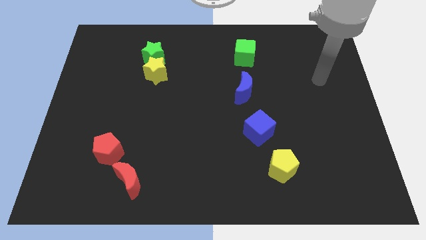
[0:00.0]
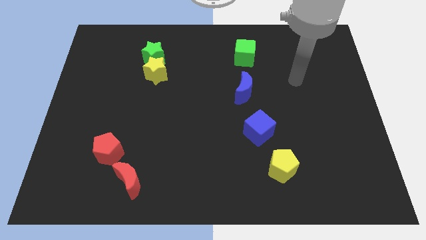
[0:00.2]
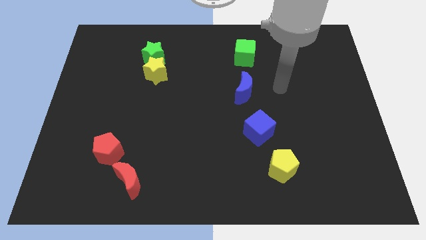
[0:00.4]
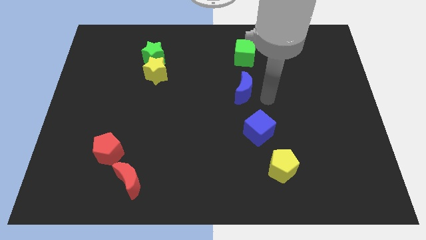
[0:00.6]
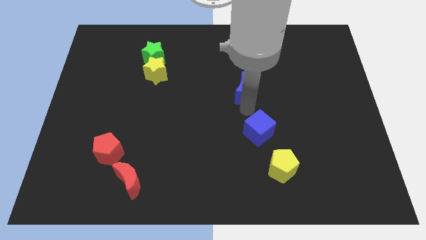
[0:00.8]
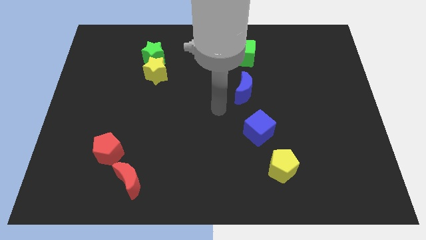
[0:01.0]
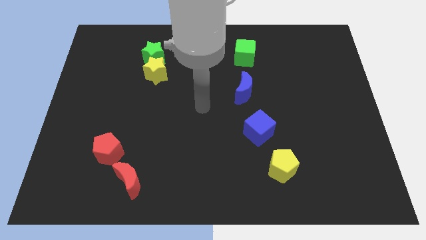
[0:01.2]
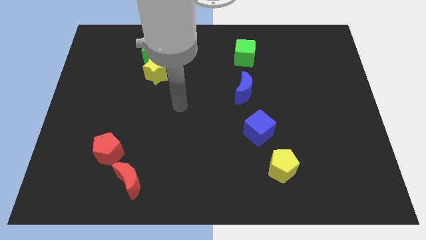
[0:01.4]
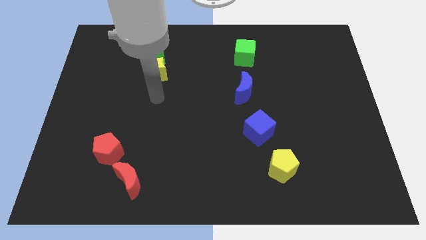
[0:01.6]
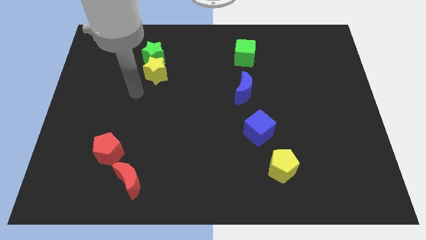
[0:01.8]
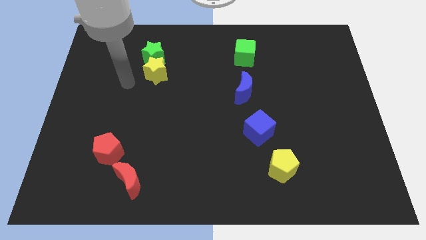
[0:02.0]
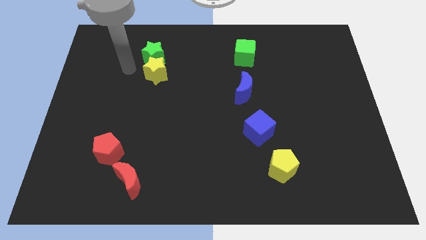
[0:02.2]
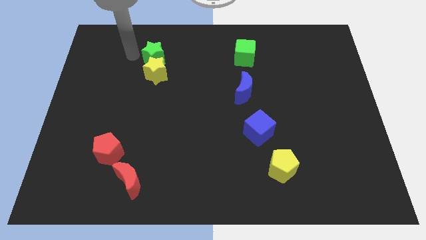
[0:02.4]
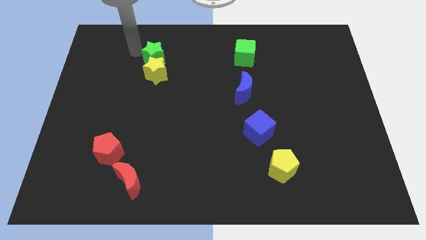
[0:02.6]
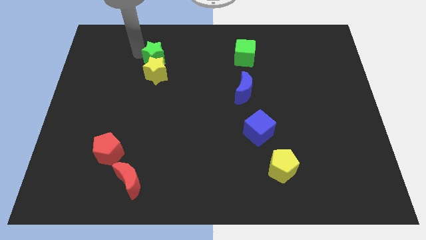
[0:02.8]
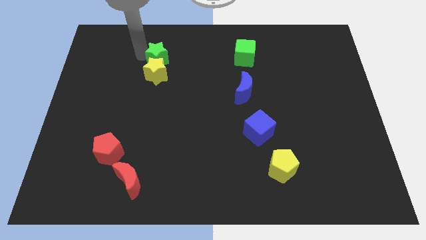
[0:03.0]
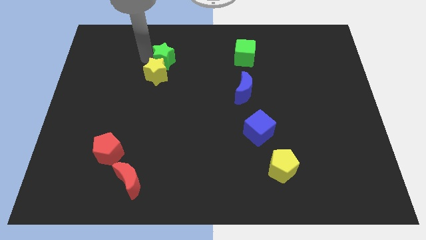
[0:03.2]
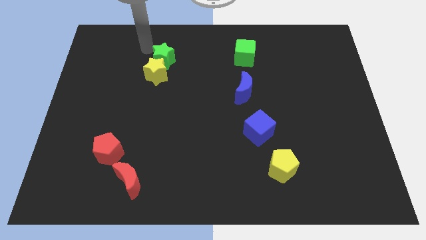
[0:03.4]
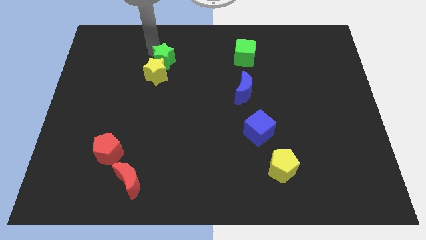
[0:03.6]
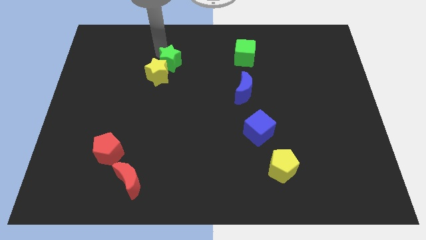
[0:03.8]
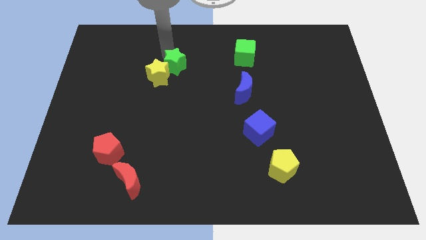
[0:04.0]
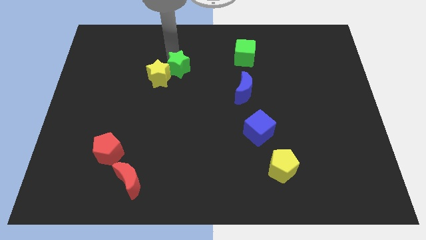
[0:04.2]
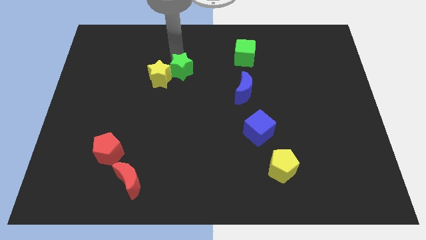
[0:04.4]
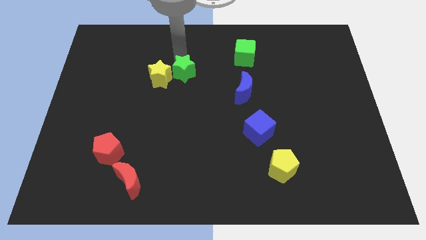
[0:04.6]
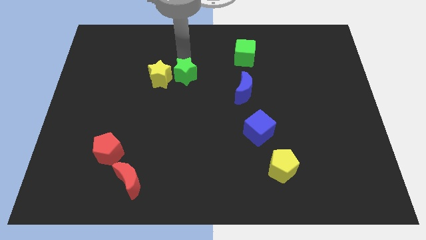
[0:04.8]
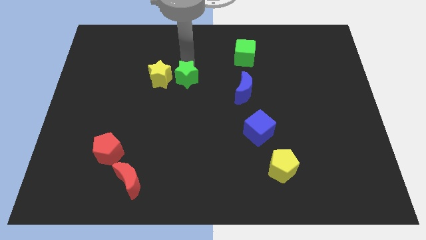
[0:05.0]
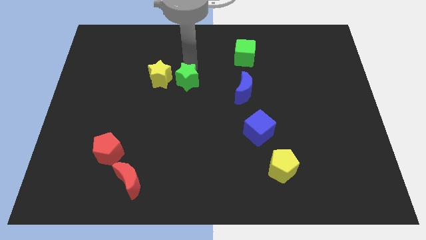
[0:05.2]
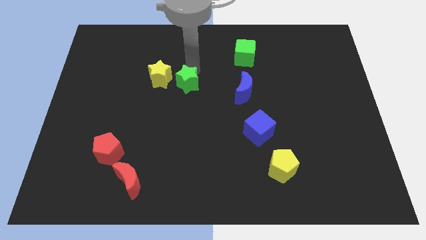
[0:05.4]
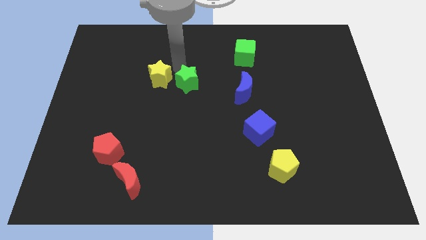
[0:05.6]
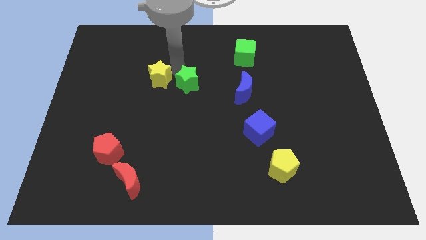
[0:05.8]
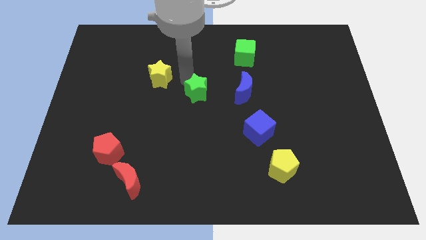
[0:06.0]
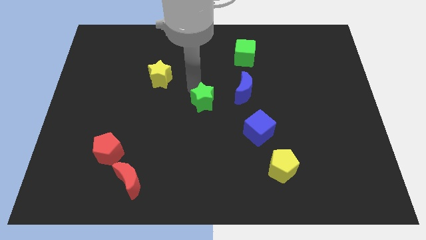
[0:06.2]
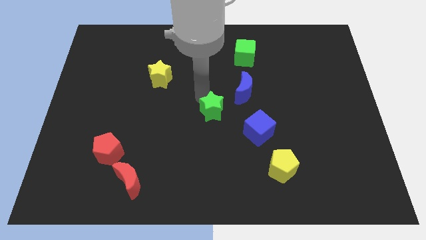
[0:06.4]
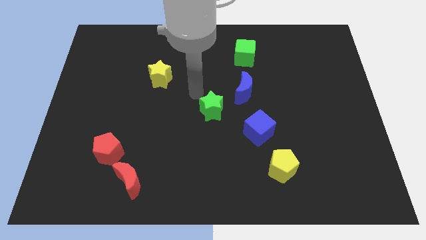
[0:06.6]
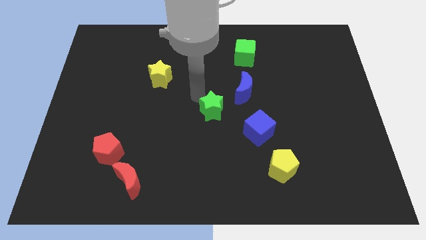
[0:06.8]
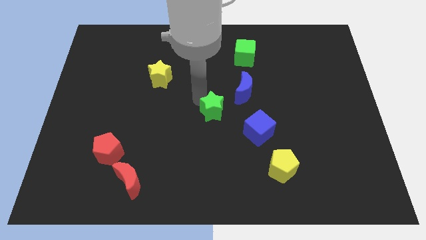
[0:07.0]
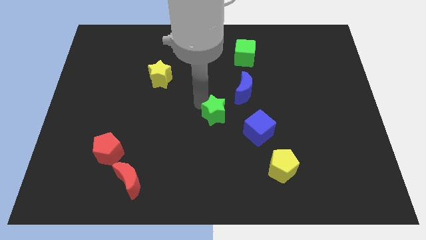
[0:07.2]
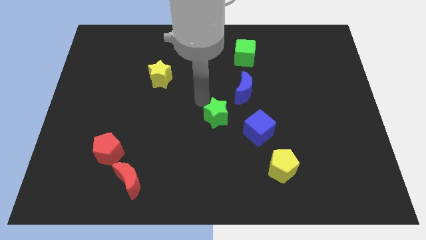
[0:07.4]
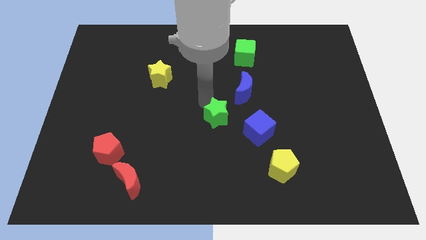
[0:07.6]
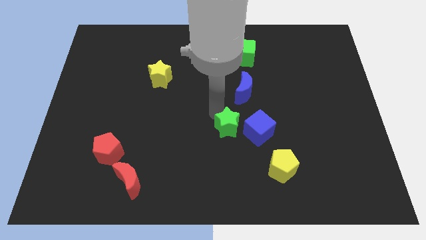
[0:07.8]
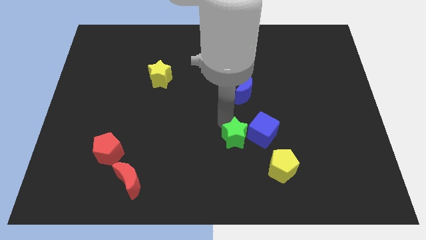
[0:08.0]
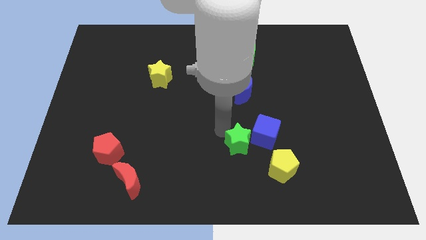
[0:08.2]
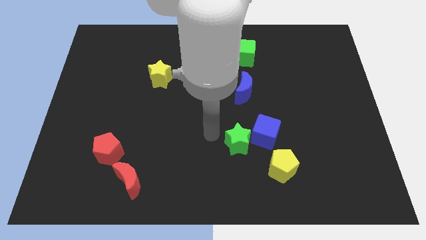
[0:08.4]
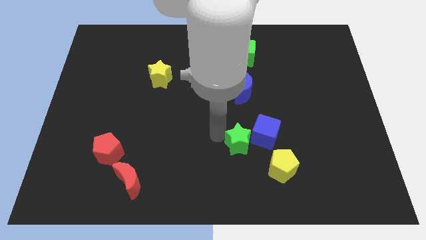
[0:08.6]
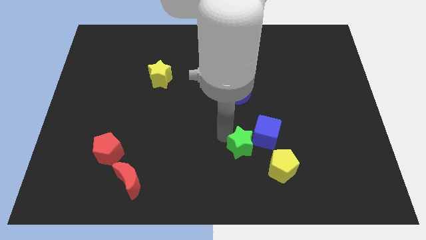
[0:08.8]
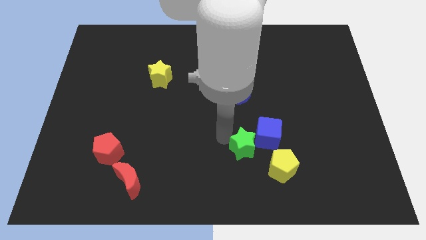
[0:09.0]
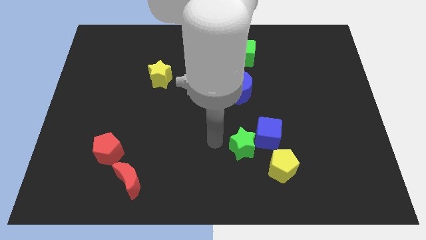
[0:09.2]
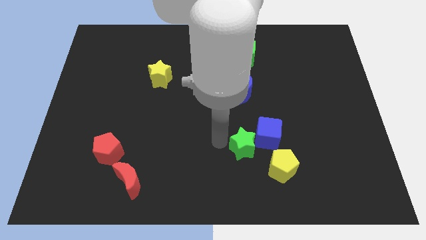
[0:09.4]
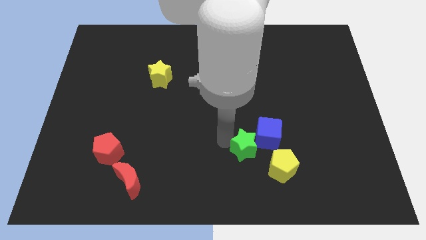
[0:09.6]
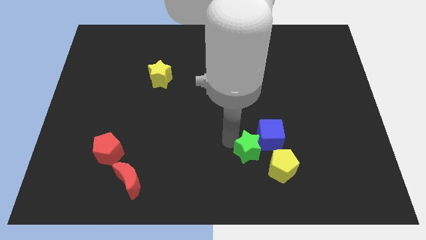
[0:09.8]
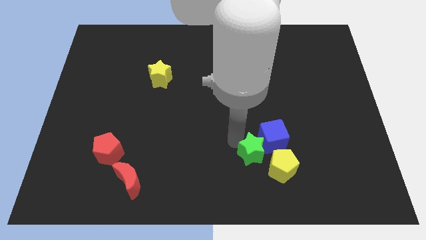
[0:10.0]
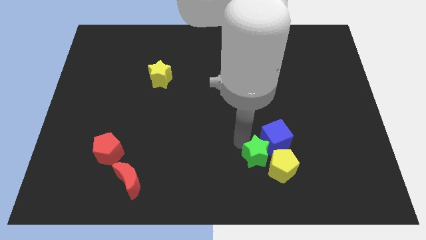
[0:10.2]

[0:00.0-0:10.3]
put the green star towards the yellow pentagon

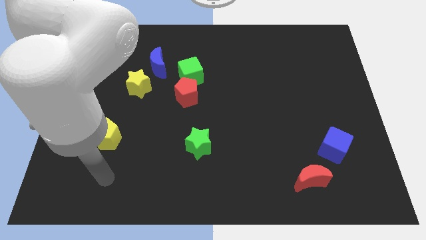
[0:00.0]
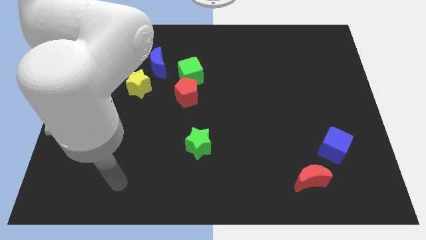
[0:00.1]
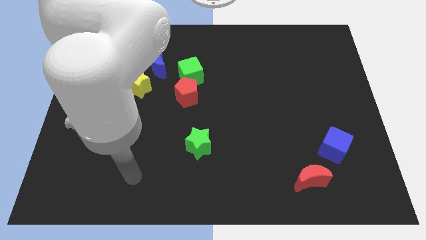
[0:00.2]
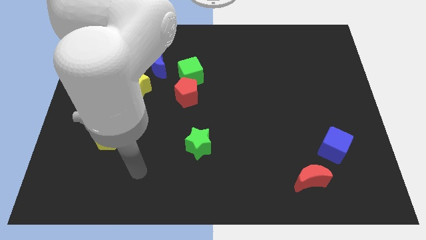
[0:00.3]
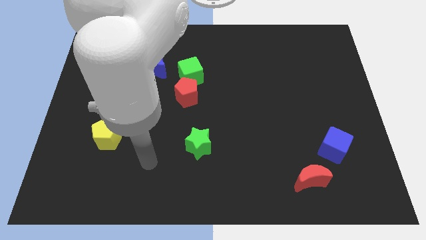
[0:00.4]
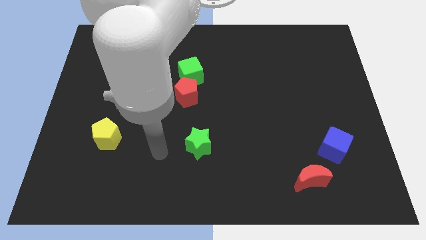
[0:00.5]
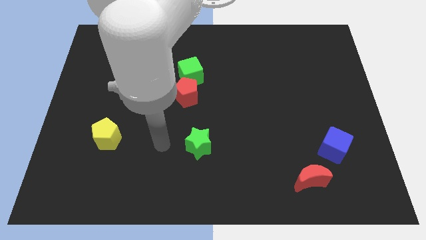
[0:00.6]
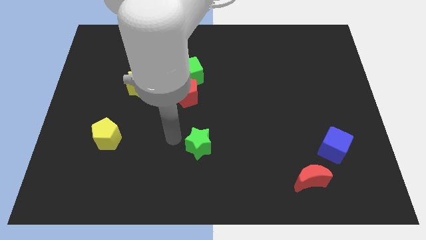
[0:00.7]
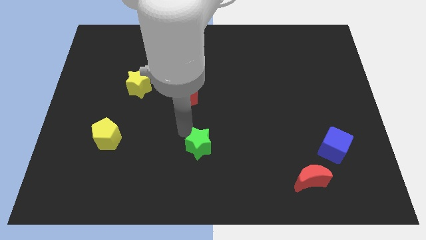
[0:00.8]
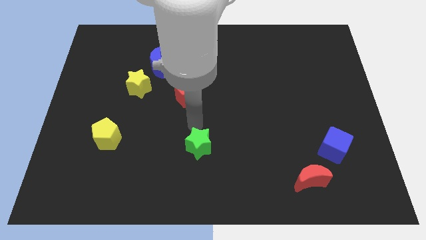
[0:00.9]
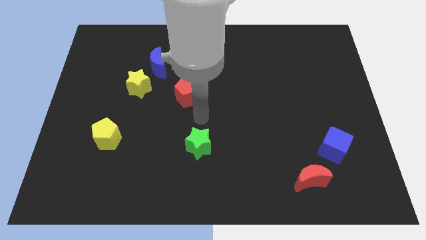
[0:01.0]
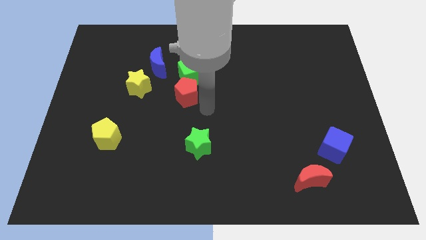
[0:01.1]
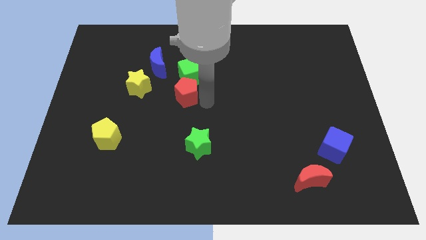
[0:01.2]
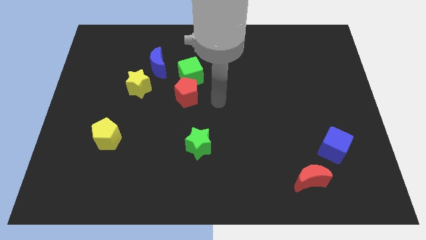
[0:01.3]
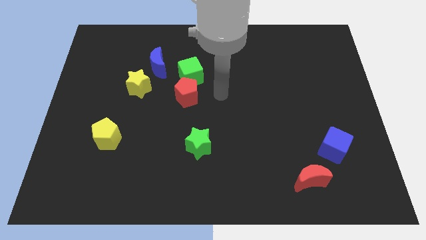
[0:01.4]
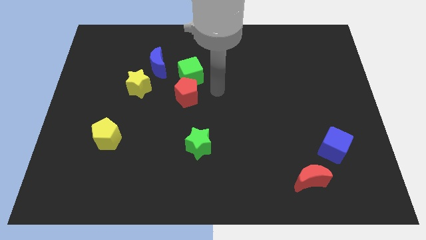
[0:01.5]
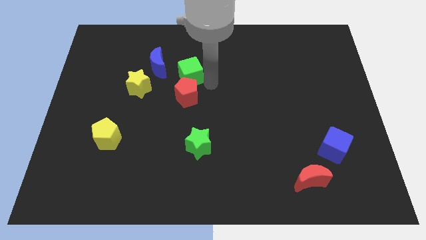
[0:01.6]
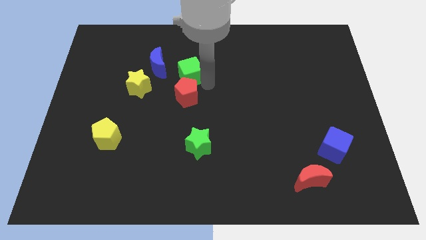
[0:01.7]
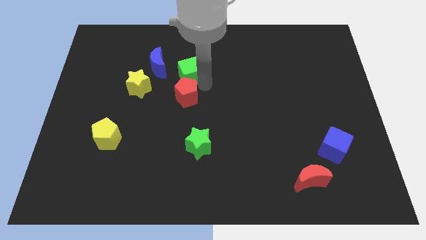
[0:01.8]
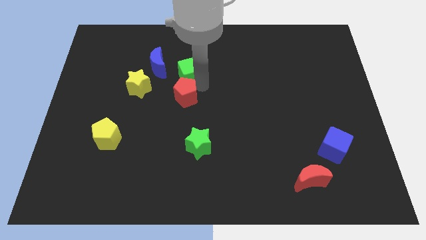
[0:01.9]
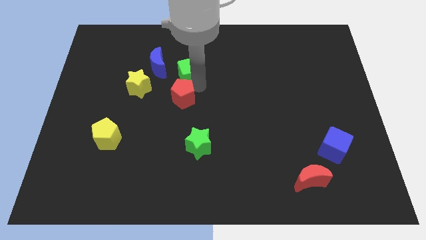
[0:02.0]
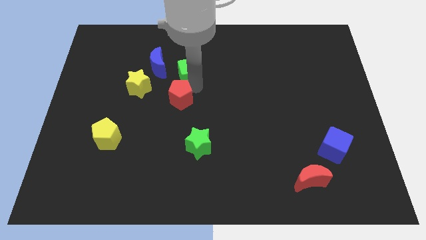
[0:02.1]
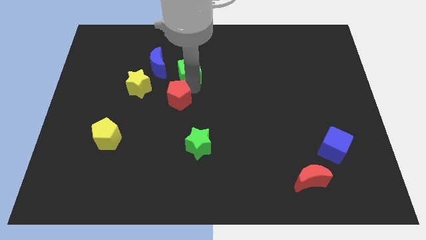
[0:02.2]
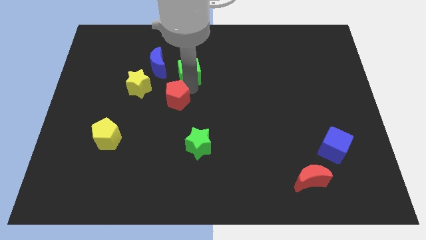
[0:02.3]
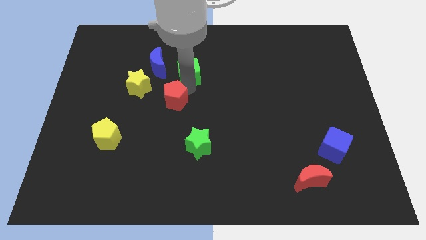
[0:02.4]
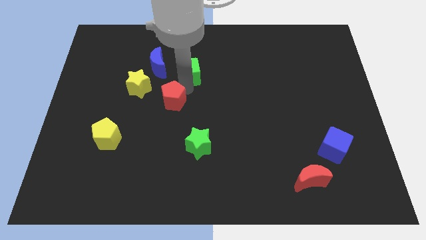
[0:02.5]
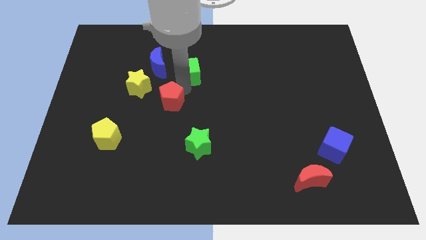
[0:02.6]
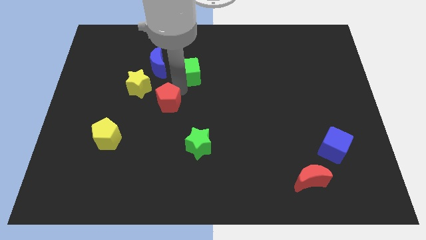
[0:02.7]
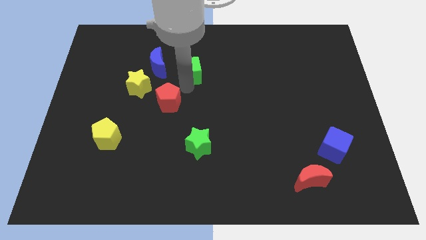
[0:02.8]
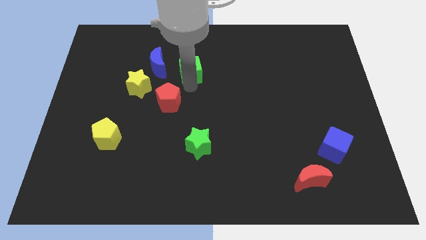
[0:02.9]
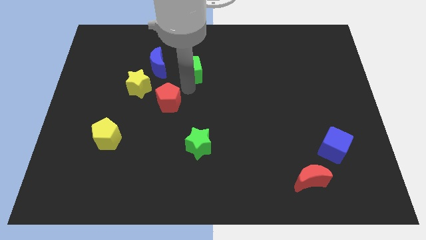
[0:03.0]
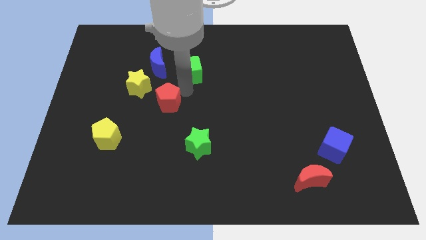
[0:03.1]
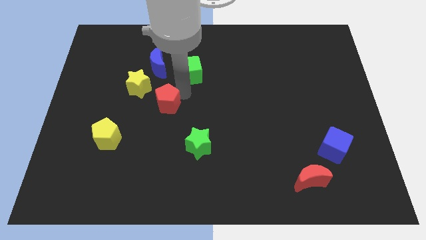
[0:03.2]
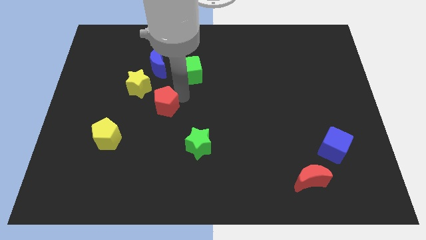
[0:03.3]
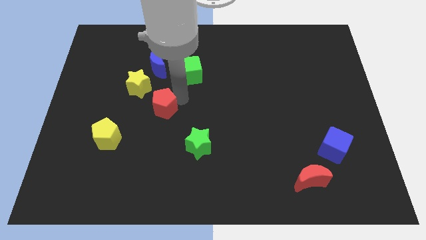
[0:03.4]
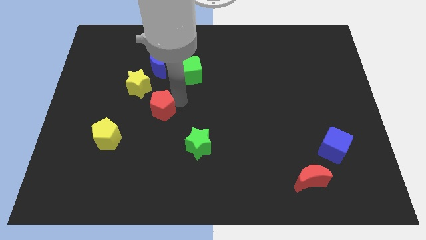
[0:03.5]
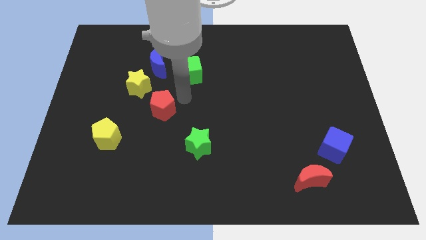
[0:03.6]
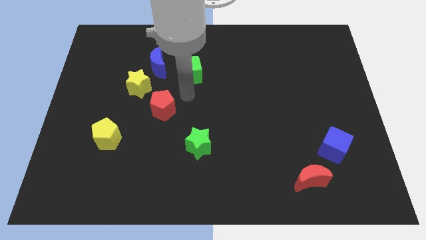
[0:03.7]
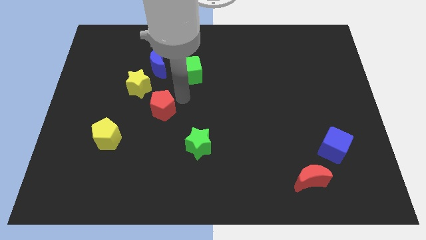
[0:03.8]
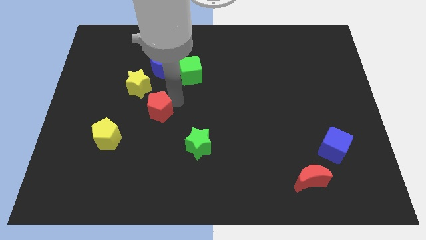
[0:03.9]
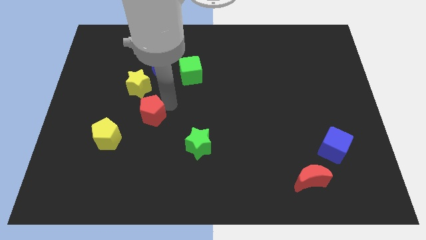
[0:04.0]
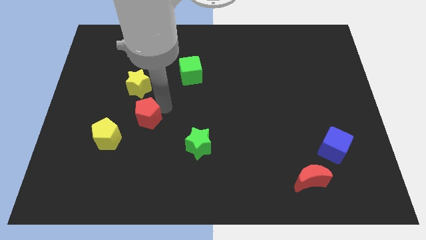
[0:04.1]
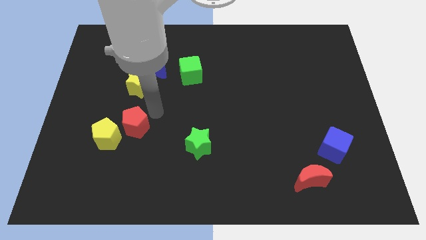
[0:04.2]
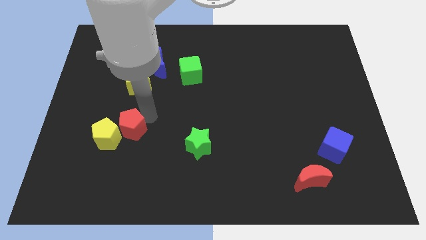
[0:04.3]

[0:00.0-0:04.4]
put the red pentagon next to the yellow pentagon
